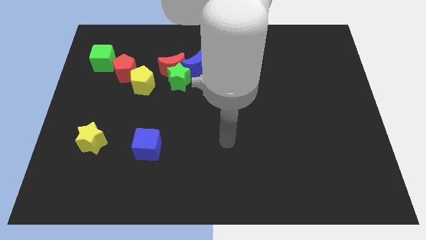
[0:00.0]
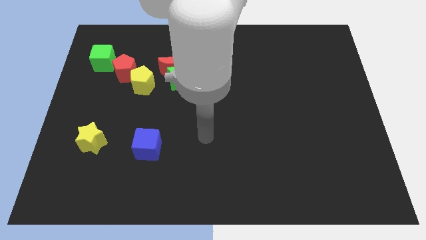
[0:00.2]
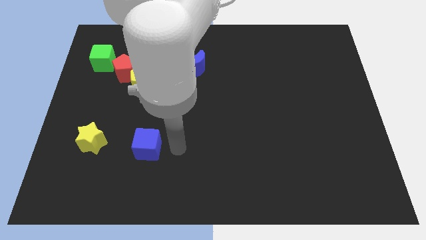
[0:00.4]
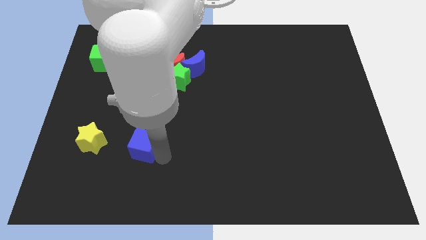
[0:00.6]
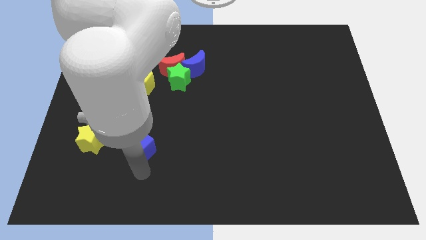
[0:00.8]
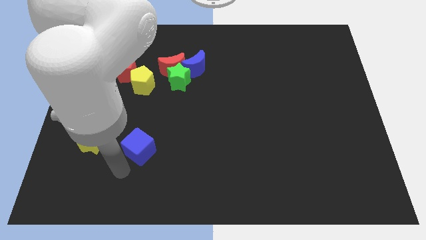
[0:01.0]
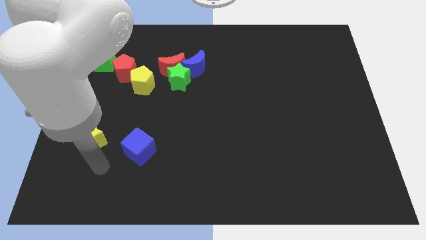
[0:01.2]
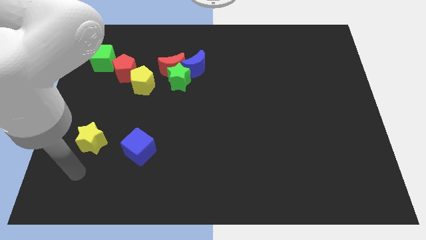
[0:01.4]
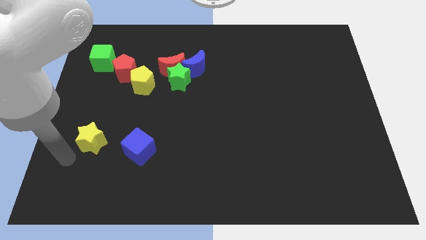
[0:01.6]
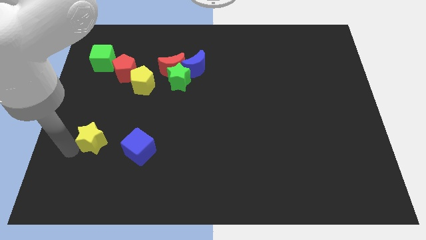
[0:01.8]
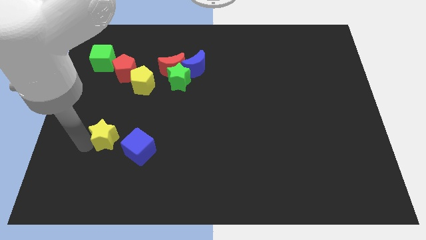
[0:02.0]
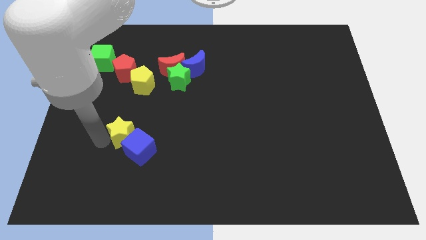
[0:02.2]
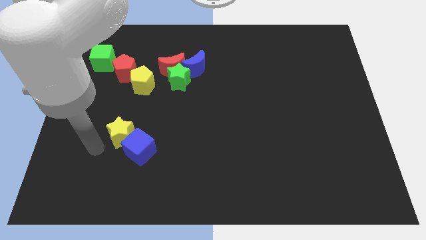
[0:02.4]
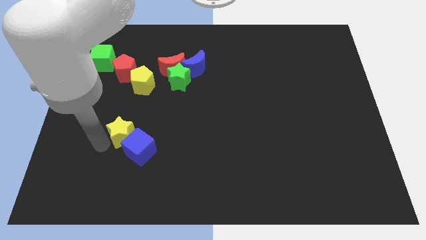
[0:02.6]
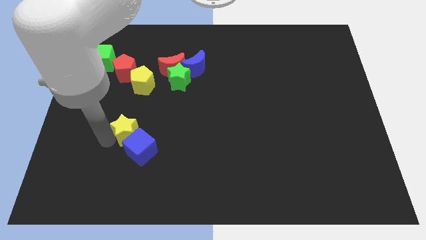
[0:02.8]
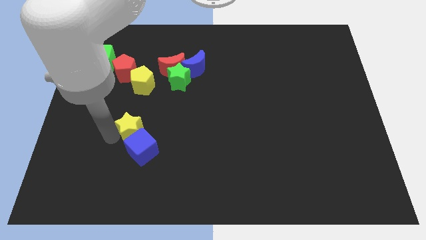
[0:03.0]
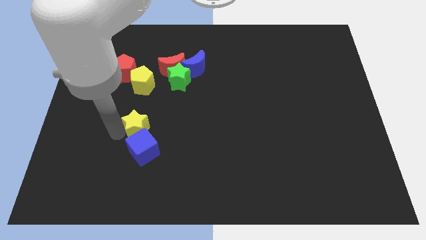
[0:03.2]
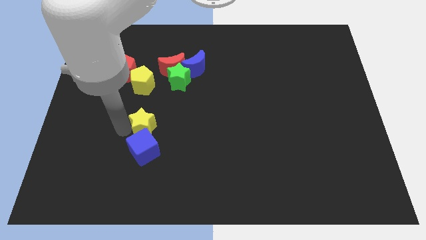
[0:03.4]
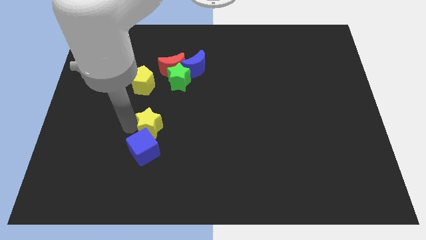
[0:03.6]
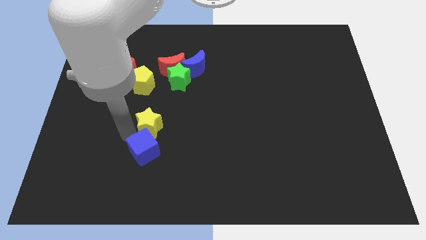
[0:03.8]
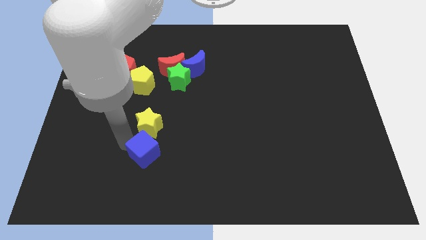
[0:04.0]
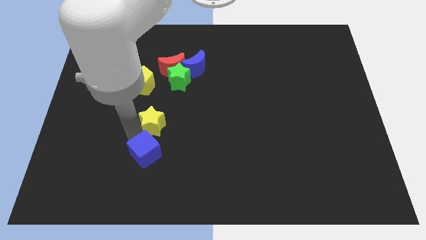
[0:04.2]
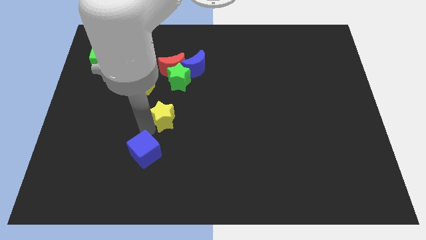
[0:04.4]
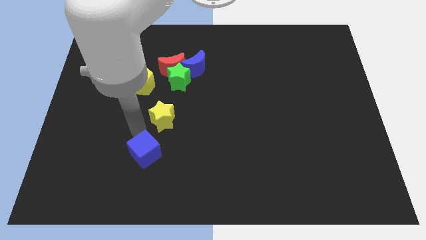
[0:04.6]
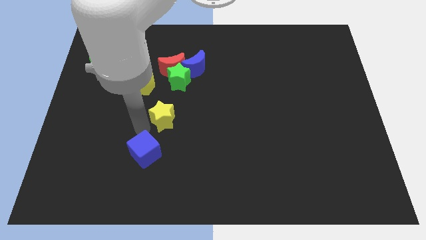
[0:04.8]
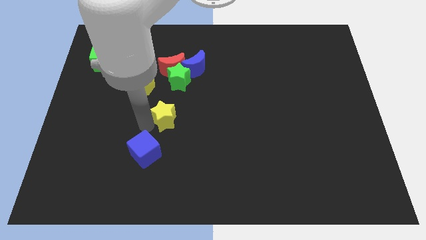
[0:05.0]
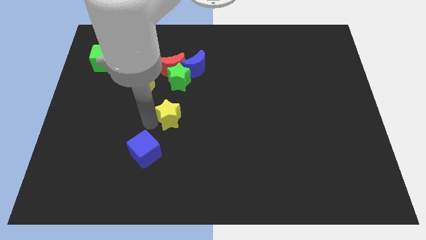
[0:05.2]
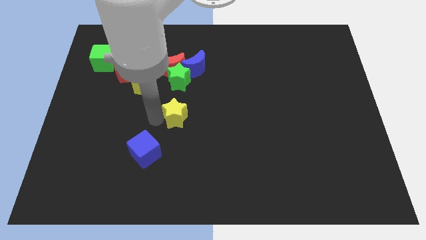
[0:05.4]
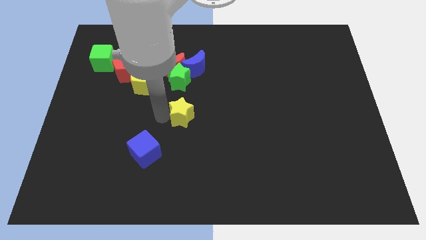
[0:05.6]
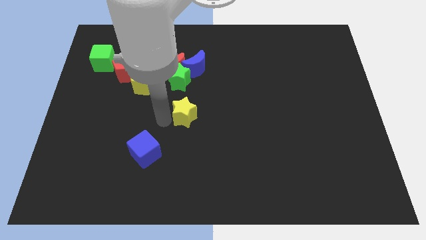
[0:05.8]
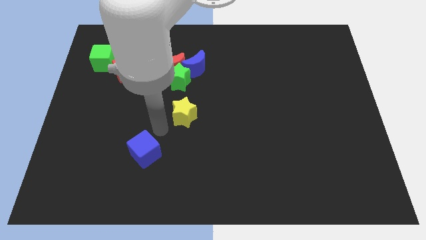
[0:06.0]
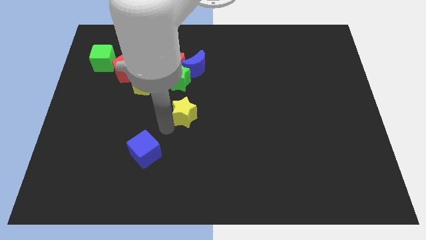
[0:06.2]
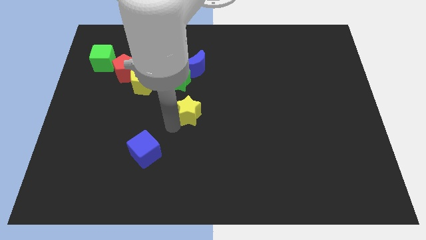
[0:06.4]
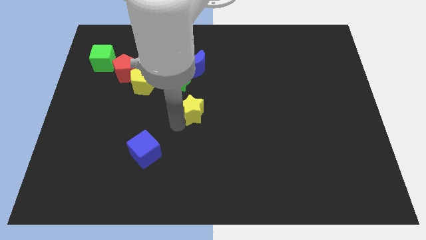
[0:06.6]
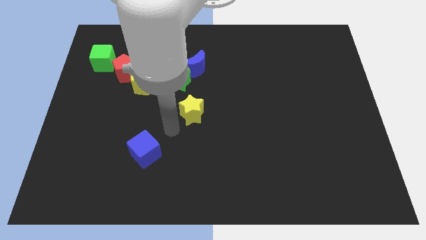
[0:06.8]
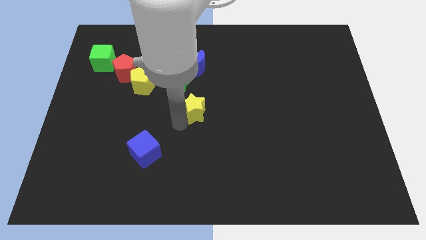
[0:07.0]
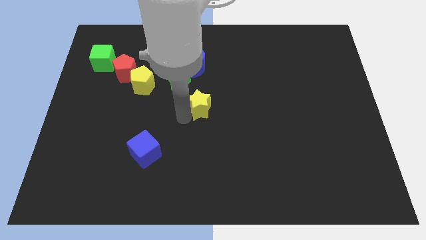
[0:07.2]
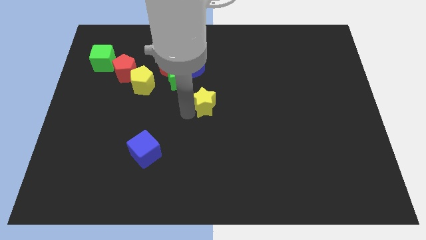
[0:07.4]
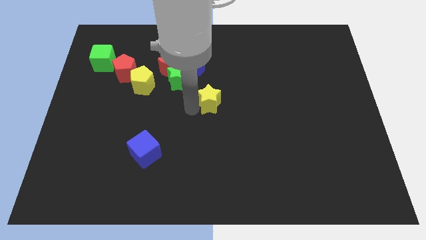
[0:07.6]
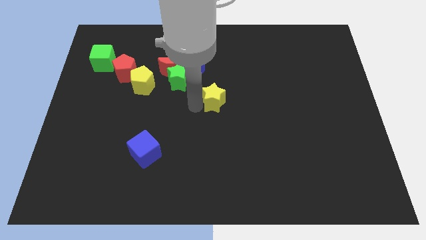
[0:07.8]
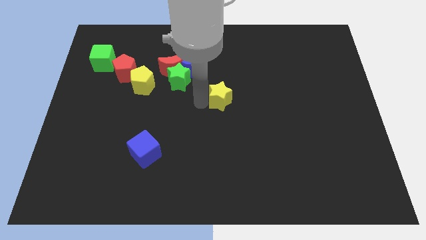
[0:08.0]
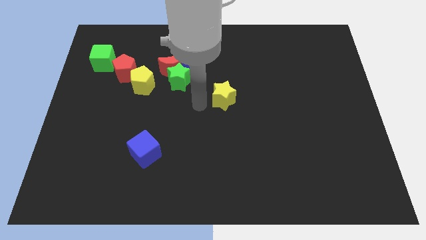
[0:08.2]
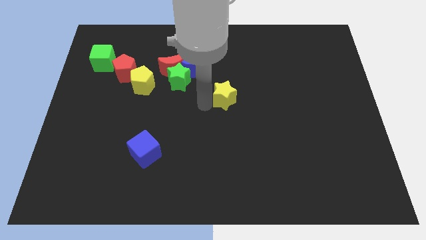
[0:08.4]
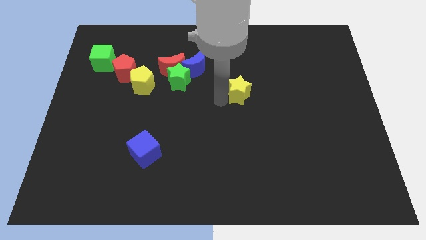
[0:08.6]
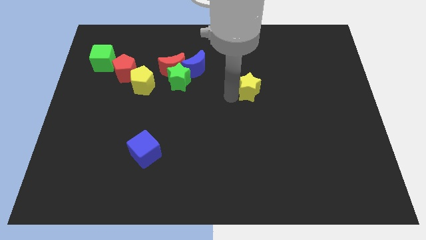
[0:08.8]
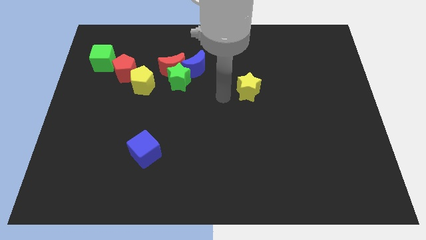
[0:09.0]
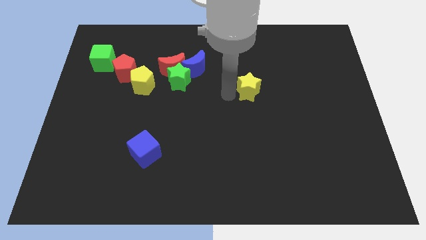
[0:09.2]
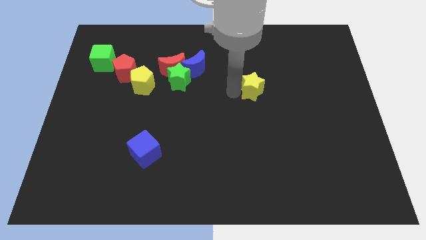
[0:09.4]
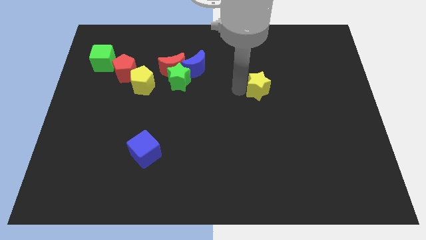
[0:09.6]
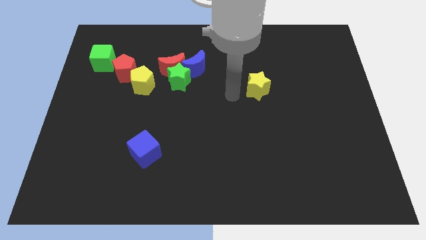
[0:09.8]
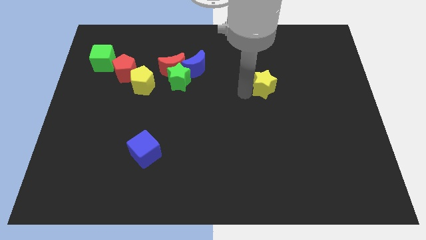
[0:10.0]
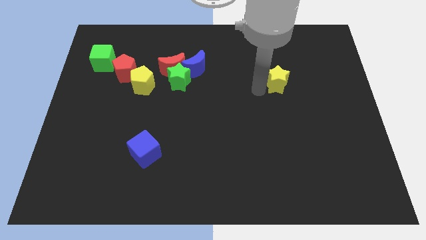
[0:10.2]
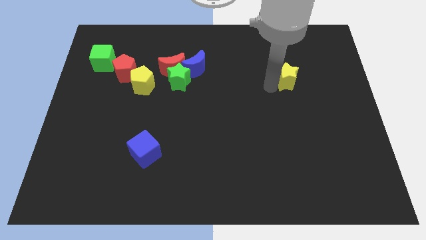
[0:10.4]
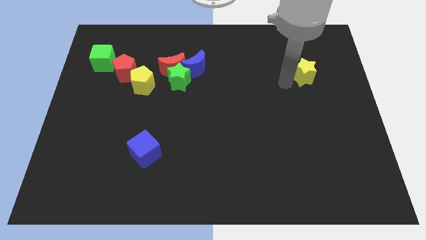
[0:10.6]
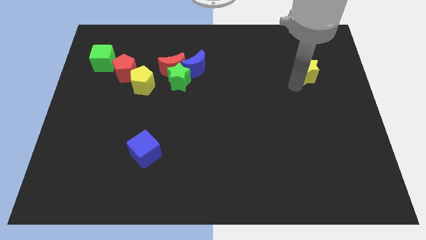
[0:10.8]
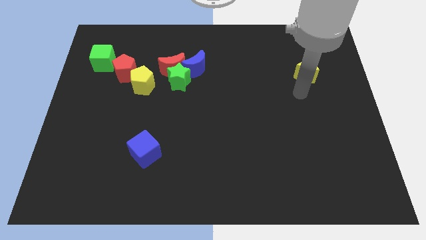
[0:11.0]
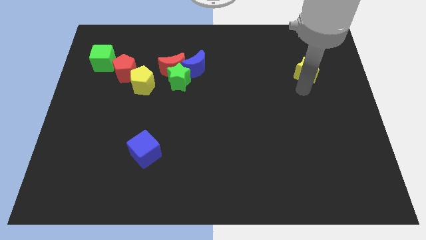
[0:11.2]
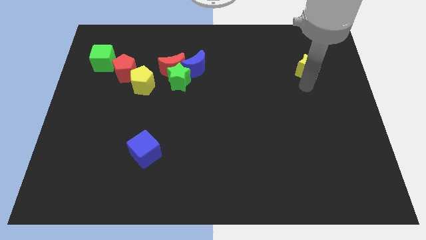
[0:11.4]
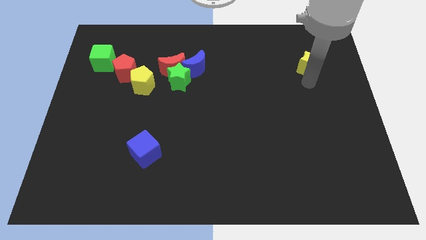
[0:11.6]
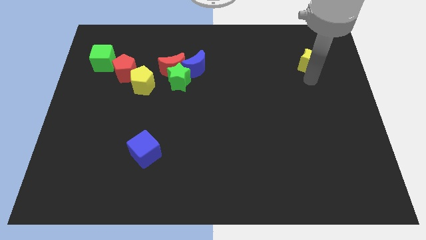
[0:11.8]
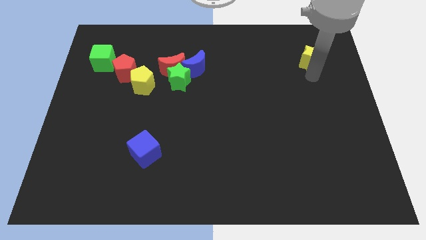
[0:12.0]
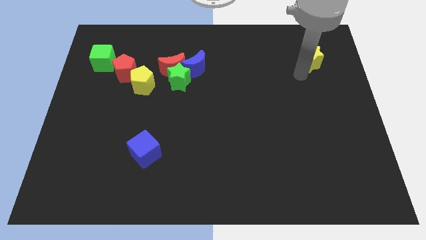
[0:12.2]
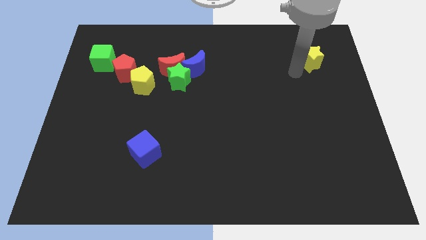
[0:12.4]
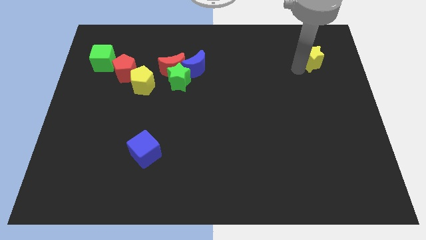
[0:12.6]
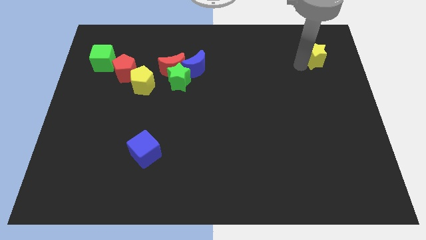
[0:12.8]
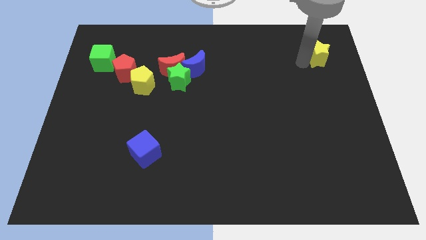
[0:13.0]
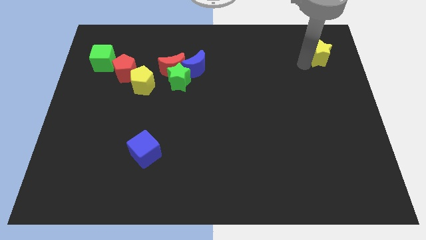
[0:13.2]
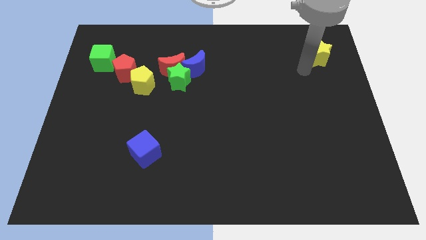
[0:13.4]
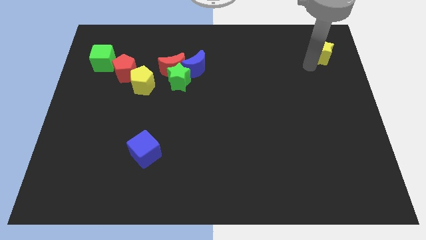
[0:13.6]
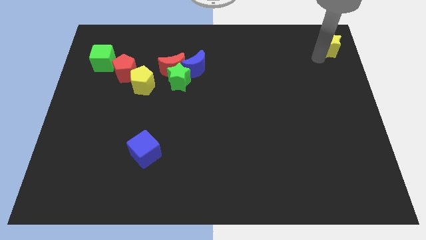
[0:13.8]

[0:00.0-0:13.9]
move the yellow star to the top right
